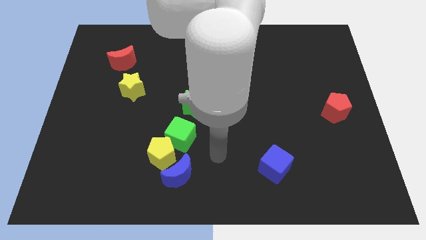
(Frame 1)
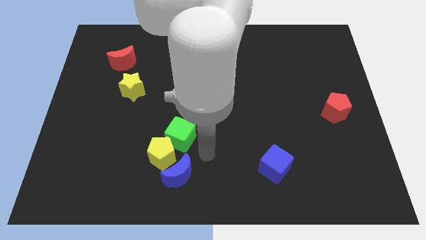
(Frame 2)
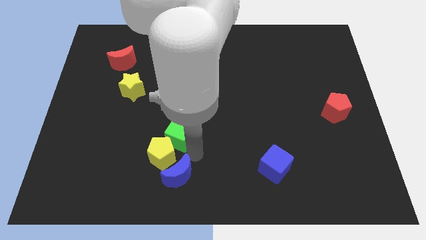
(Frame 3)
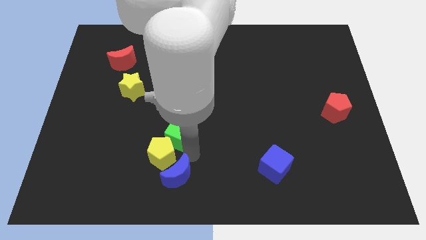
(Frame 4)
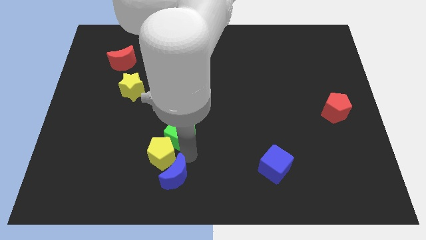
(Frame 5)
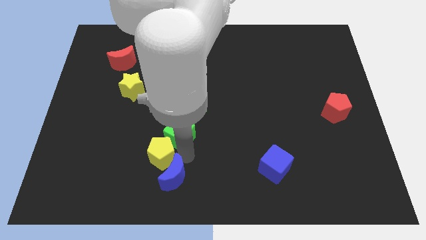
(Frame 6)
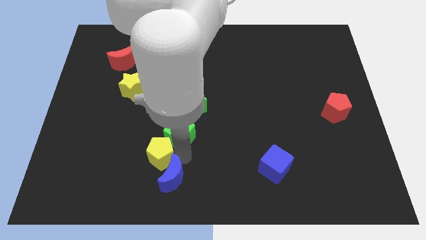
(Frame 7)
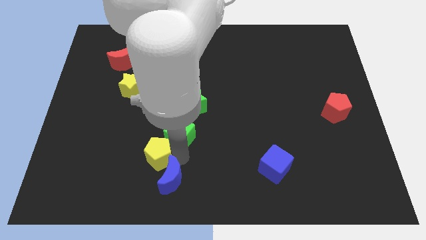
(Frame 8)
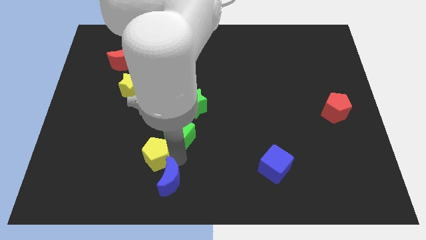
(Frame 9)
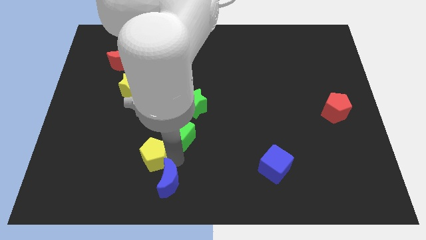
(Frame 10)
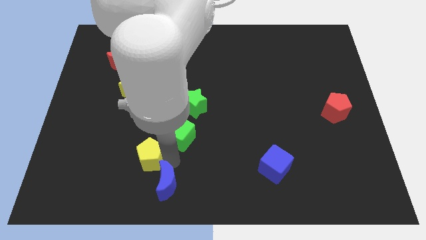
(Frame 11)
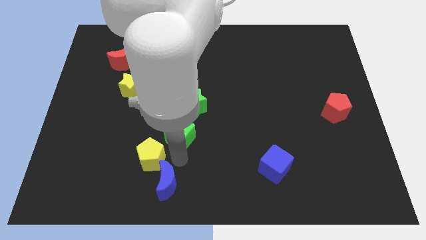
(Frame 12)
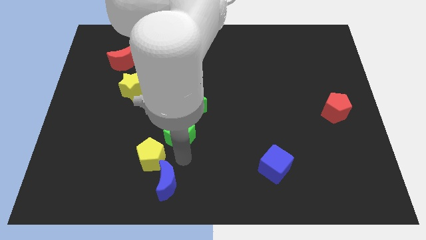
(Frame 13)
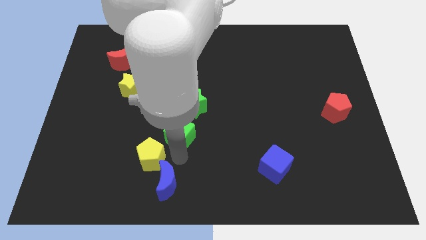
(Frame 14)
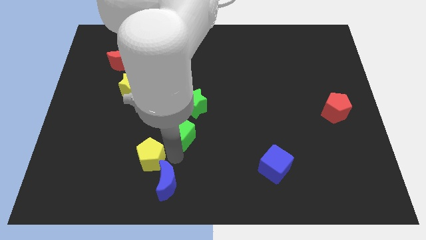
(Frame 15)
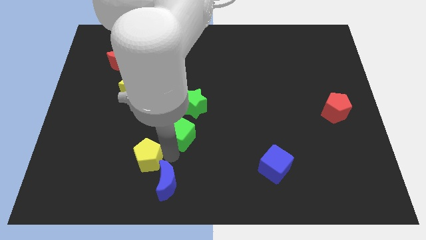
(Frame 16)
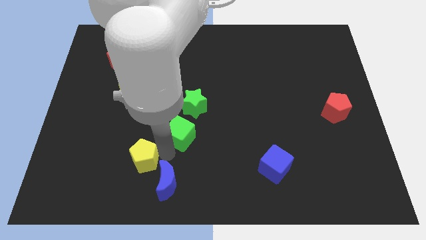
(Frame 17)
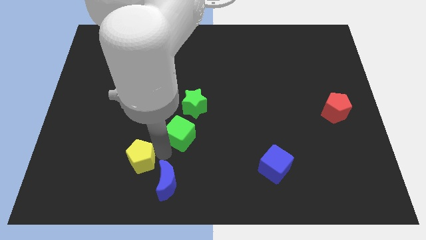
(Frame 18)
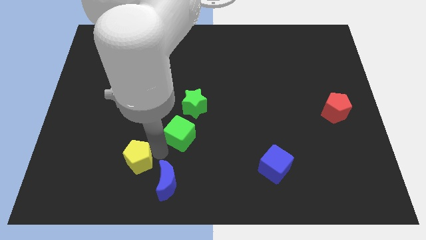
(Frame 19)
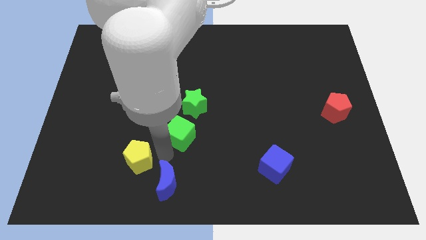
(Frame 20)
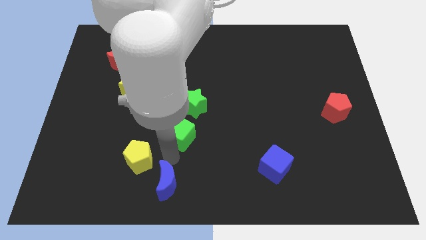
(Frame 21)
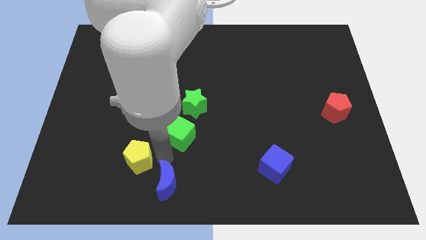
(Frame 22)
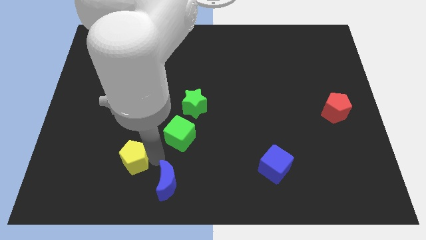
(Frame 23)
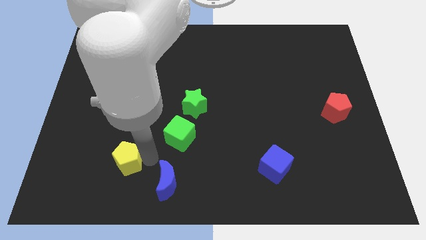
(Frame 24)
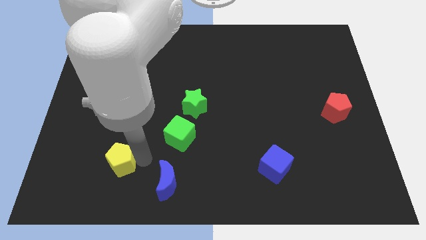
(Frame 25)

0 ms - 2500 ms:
pull the yellow pentagon apart from the green cube and blue moon

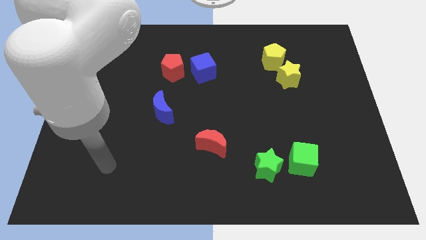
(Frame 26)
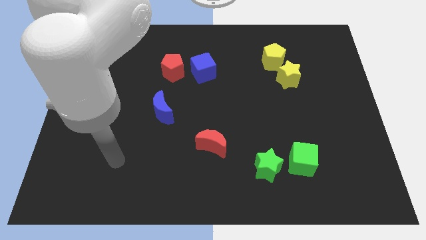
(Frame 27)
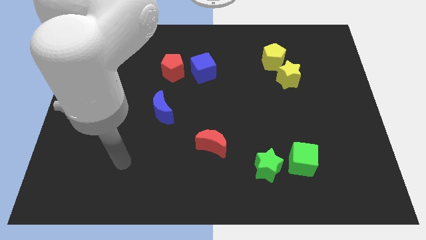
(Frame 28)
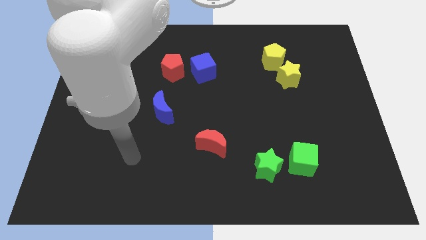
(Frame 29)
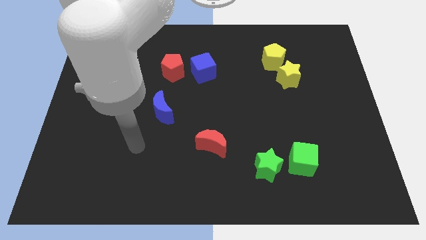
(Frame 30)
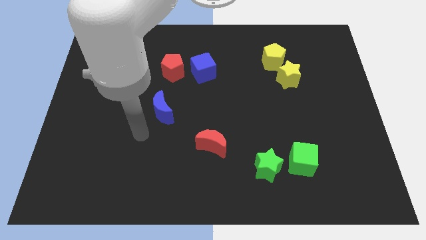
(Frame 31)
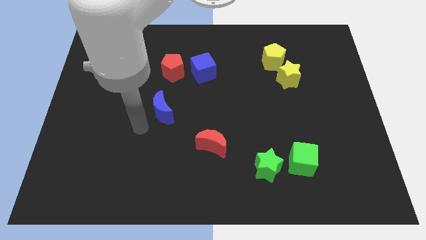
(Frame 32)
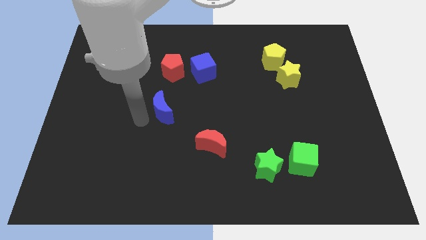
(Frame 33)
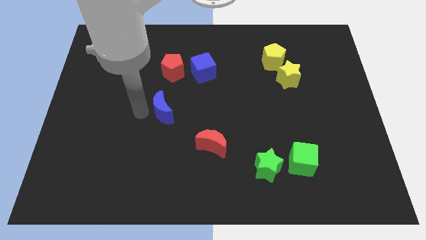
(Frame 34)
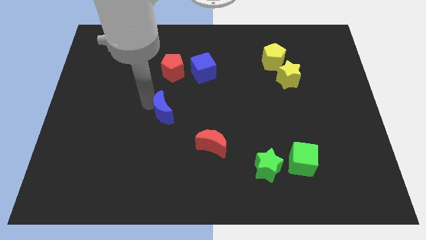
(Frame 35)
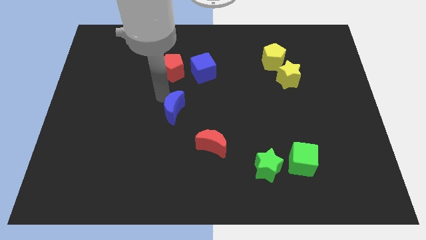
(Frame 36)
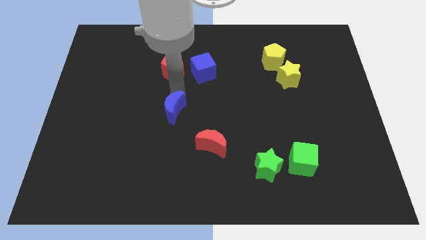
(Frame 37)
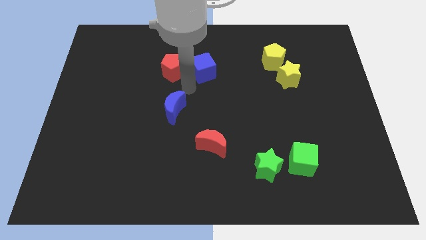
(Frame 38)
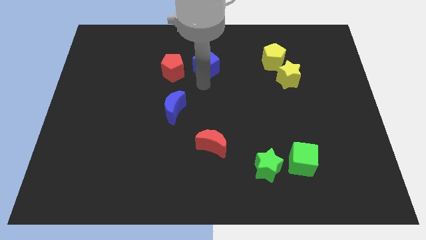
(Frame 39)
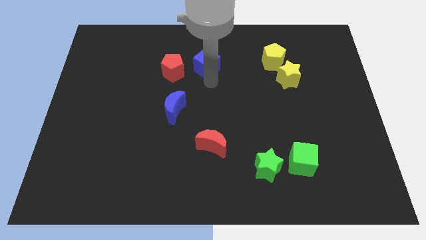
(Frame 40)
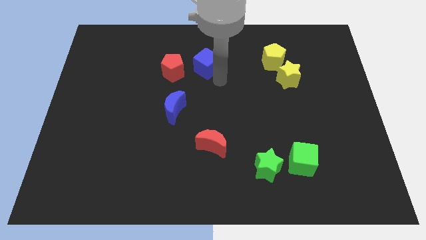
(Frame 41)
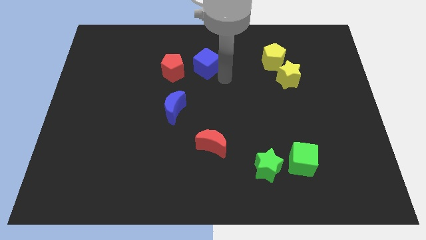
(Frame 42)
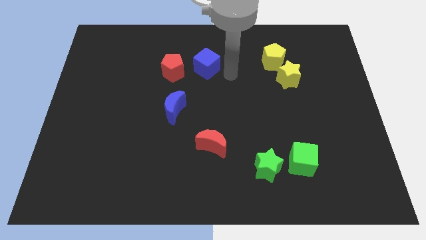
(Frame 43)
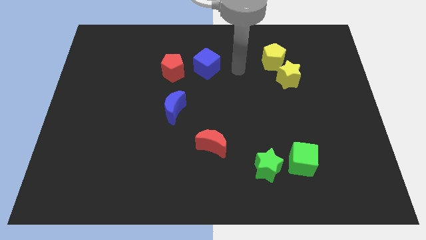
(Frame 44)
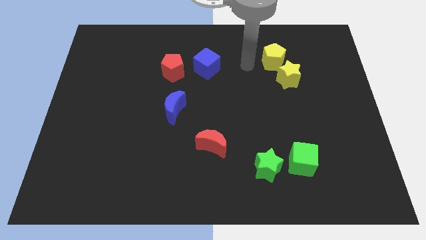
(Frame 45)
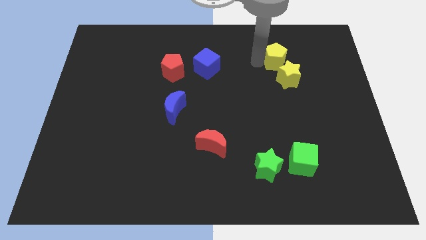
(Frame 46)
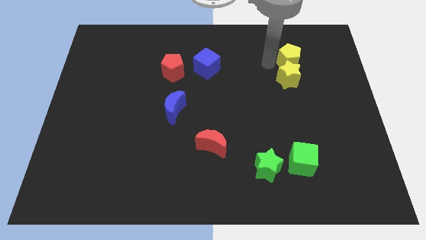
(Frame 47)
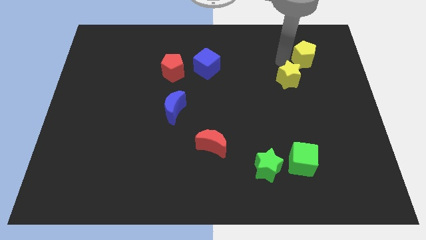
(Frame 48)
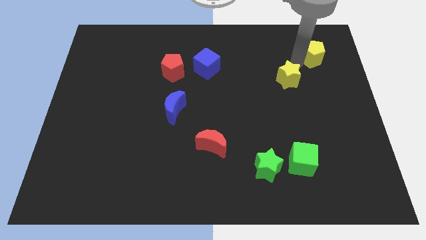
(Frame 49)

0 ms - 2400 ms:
pull the yellow star apart from the yellow pentagon

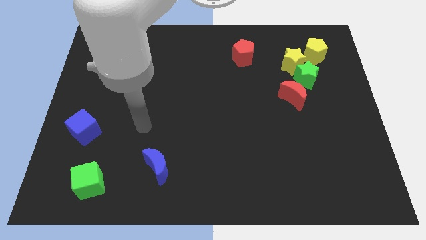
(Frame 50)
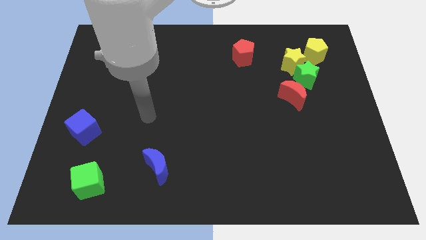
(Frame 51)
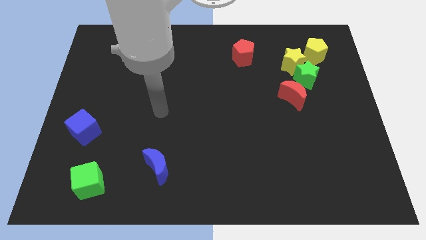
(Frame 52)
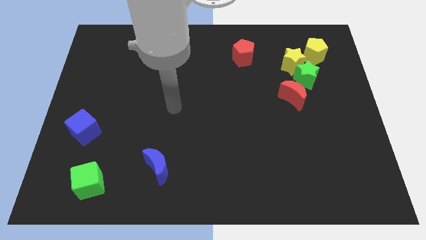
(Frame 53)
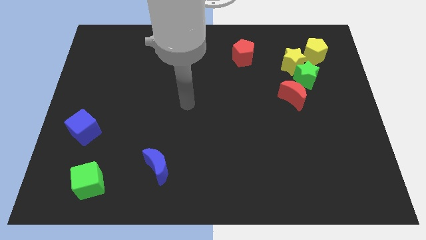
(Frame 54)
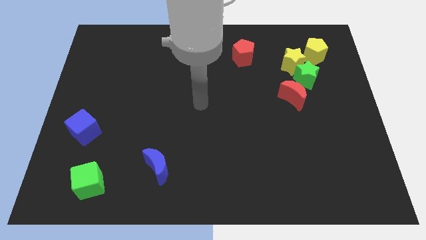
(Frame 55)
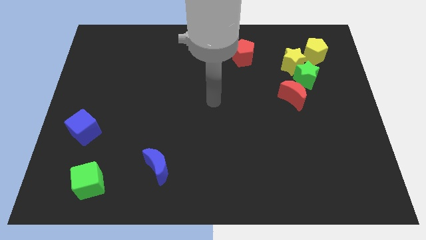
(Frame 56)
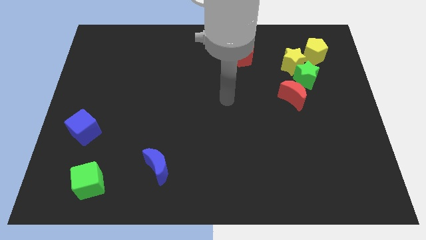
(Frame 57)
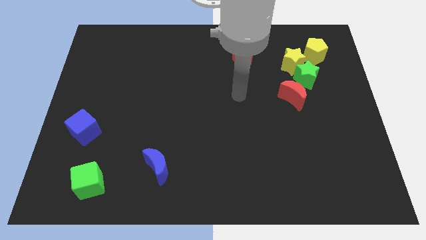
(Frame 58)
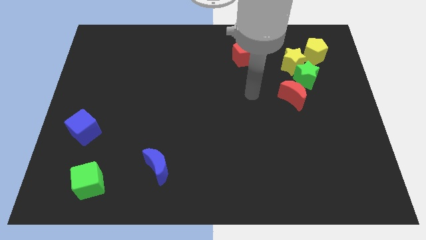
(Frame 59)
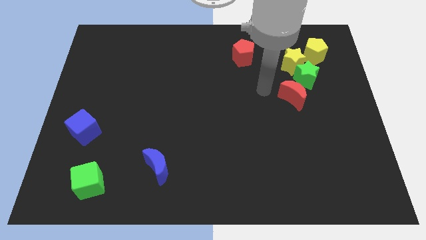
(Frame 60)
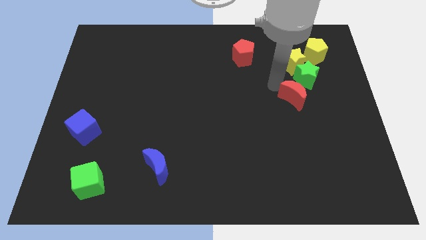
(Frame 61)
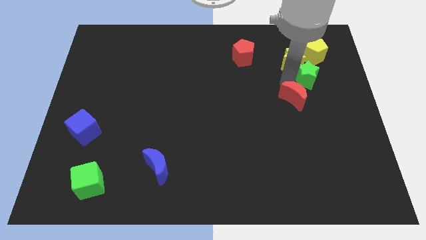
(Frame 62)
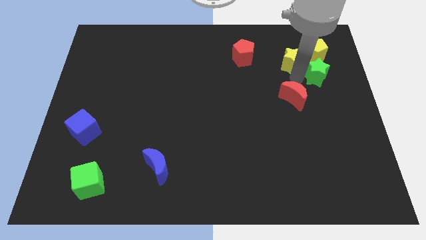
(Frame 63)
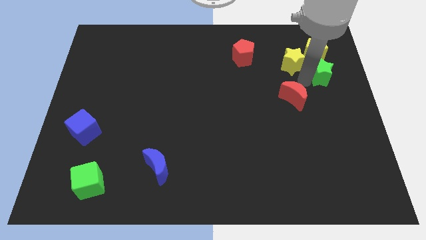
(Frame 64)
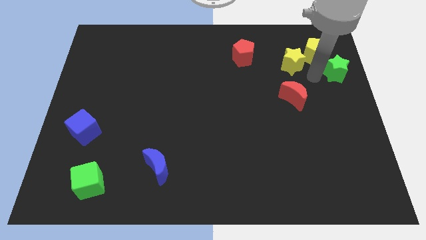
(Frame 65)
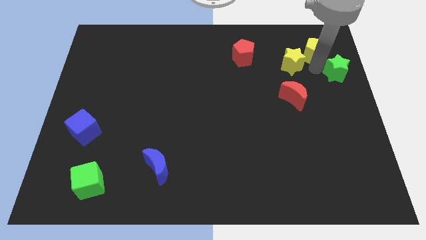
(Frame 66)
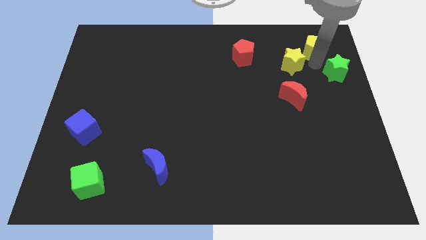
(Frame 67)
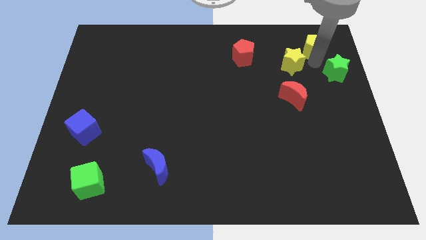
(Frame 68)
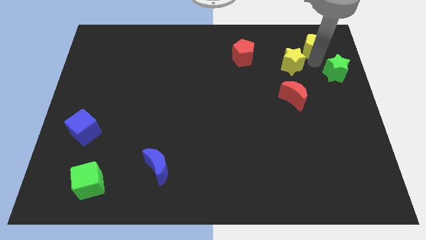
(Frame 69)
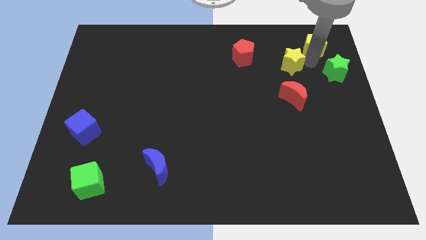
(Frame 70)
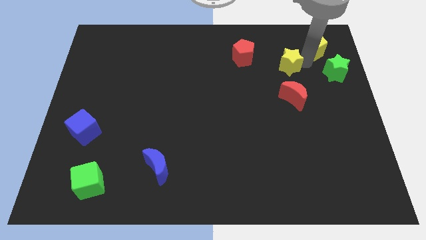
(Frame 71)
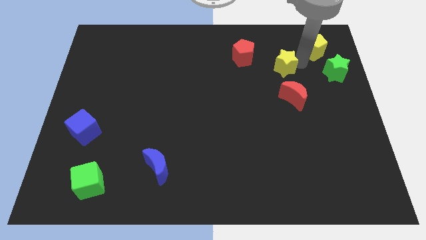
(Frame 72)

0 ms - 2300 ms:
pull the yellow star apart from the green star and yellow pentagon

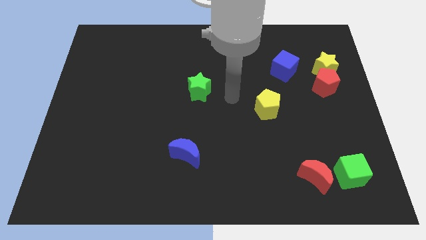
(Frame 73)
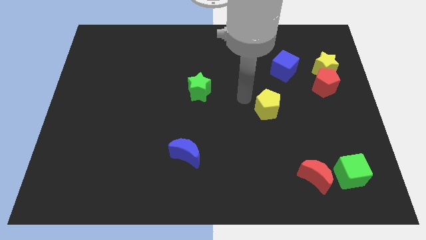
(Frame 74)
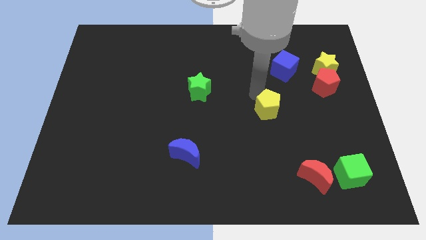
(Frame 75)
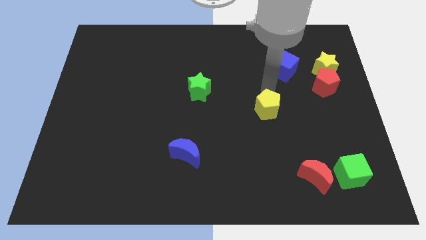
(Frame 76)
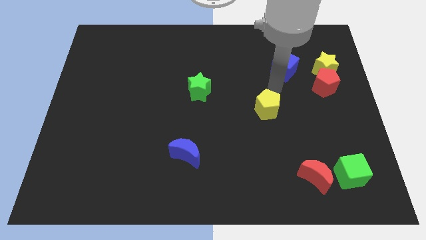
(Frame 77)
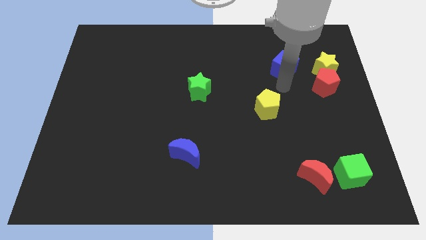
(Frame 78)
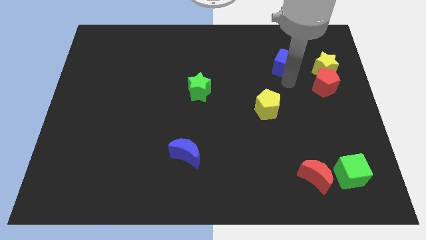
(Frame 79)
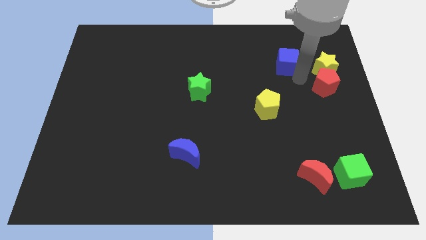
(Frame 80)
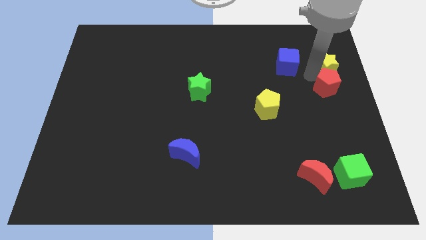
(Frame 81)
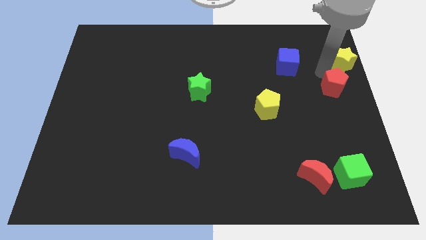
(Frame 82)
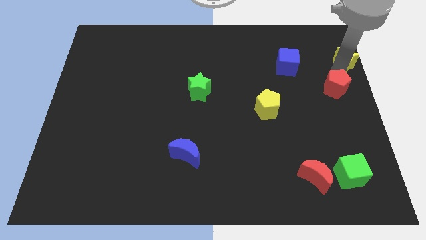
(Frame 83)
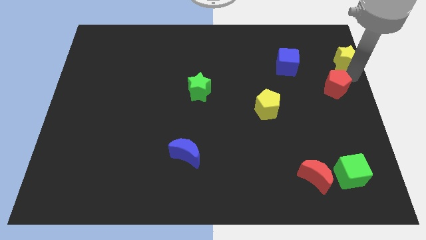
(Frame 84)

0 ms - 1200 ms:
separate the red pentagon from the yellow star

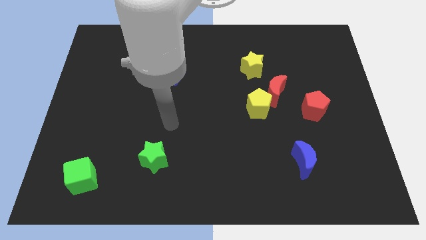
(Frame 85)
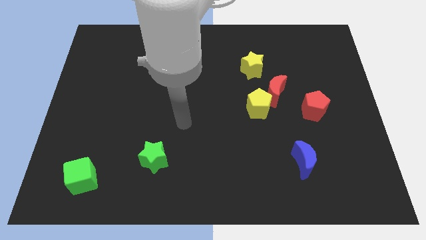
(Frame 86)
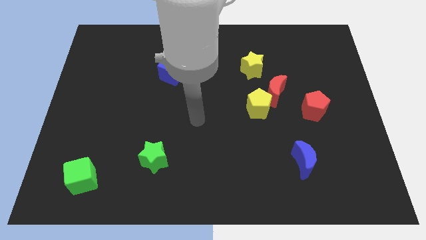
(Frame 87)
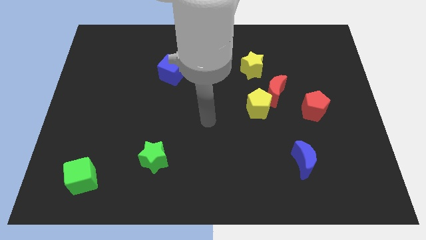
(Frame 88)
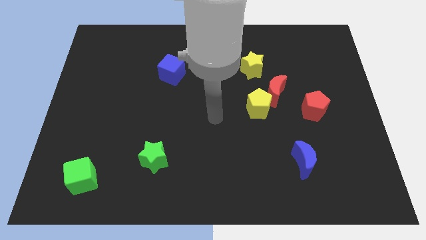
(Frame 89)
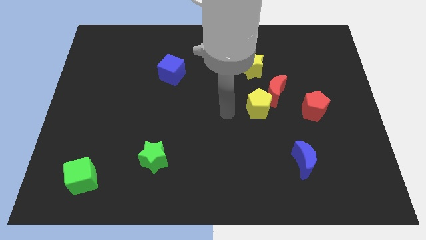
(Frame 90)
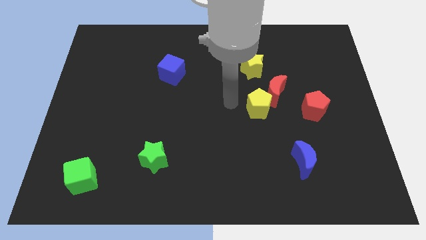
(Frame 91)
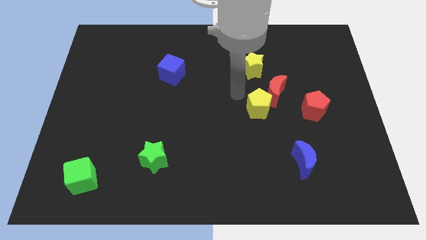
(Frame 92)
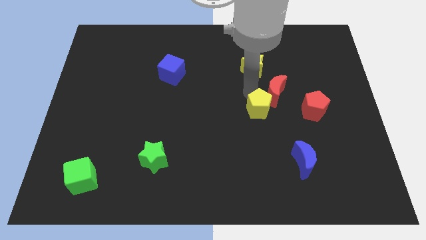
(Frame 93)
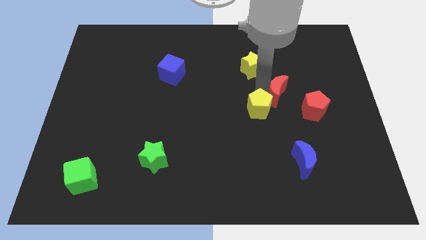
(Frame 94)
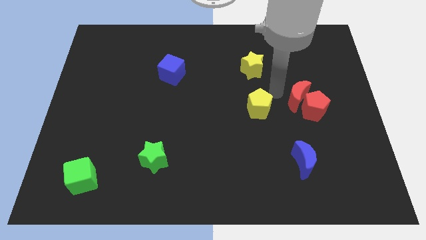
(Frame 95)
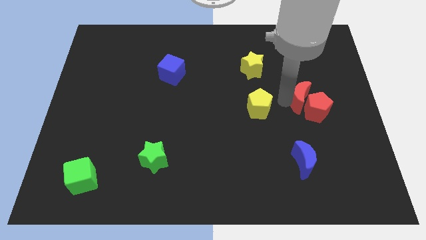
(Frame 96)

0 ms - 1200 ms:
pull the yellow pentagon apart from the red moon
